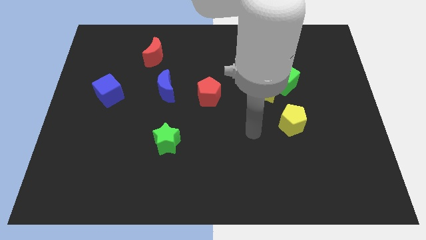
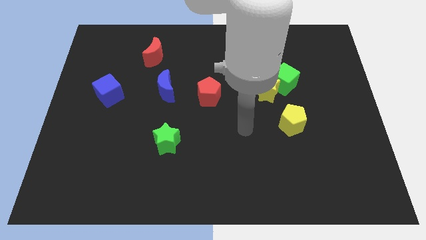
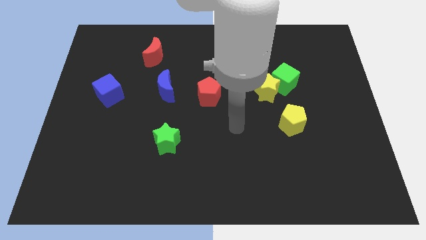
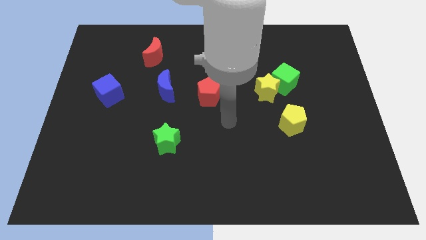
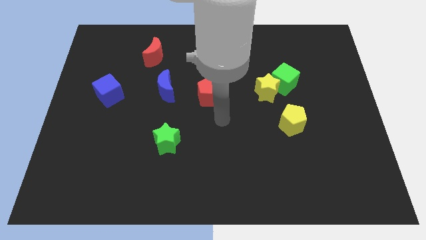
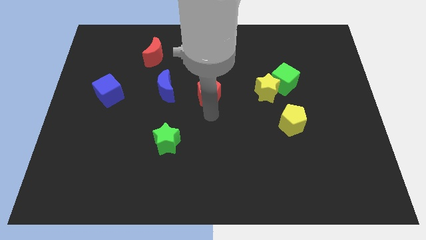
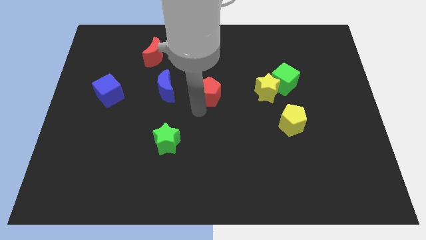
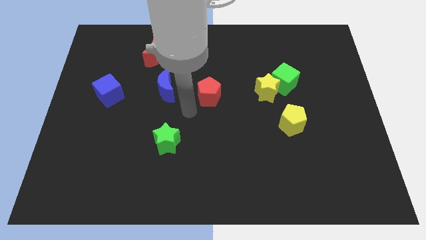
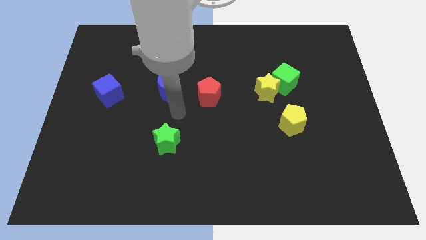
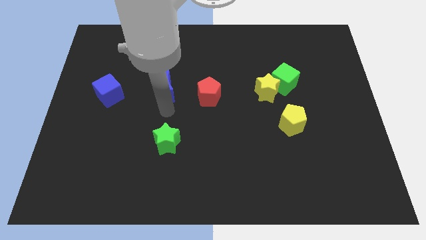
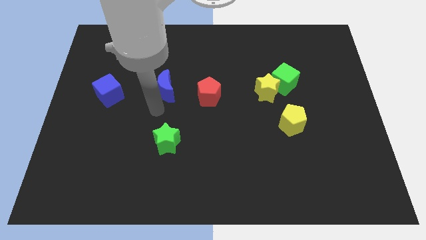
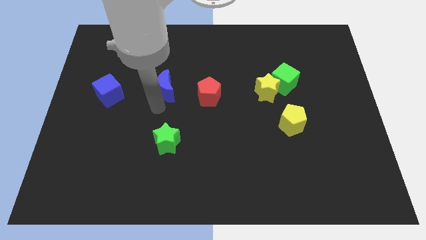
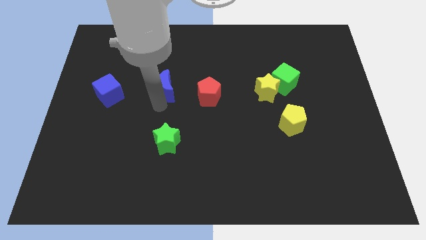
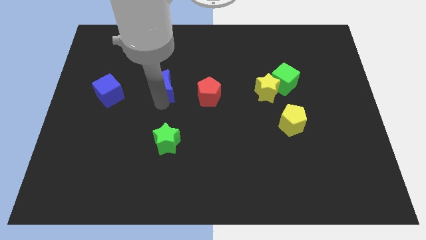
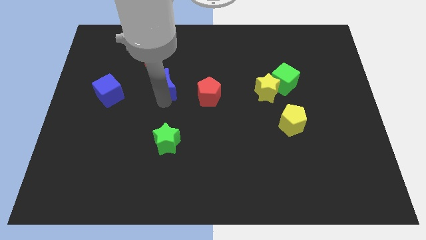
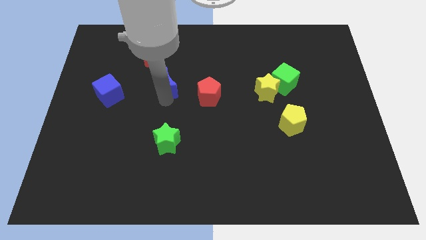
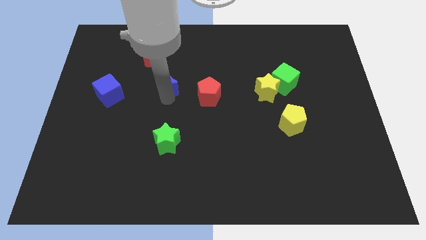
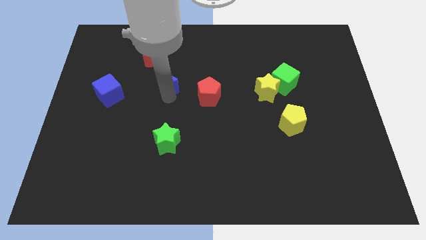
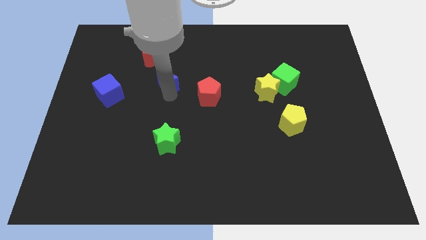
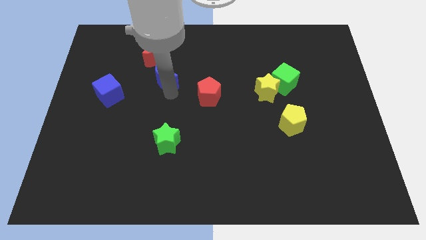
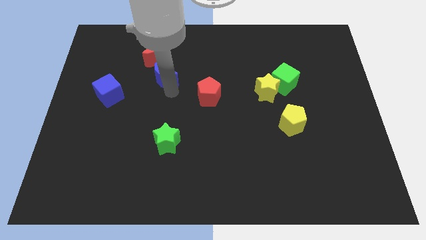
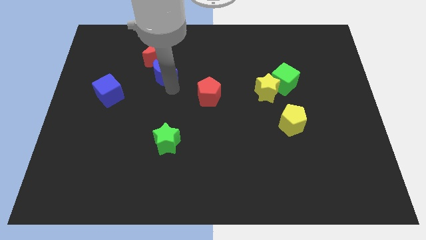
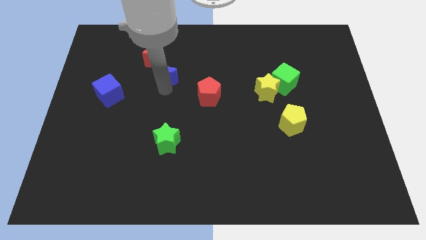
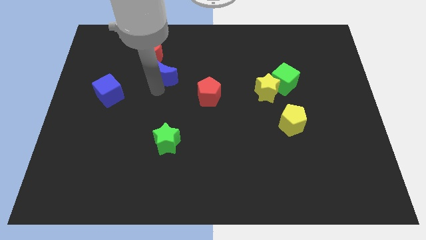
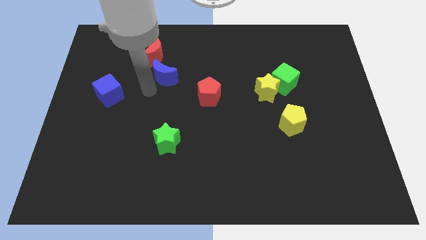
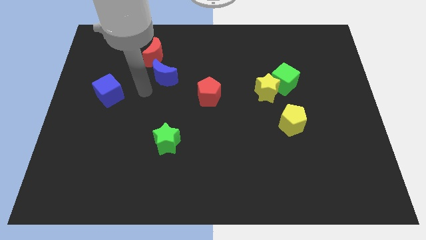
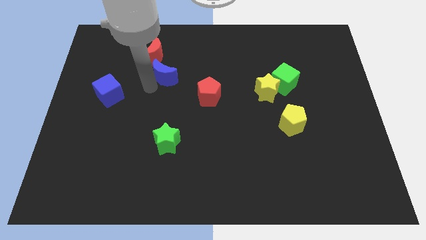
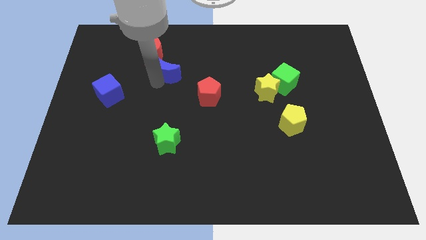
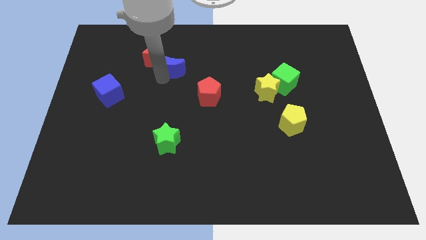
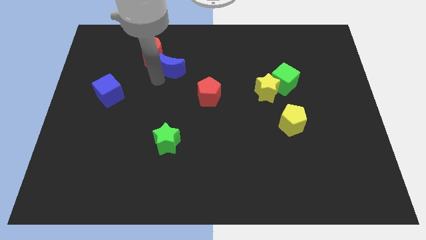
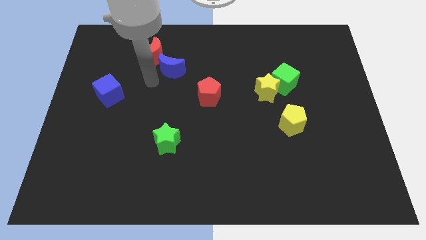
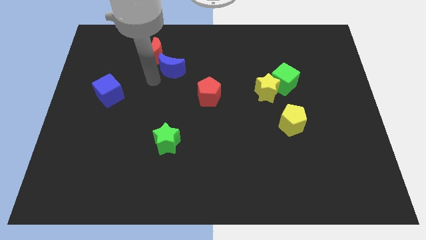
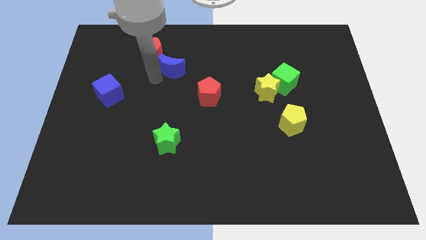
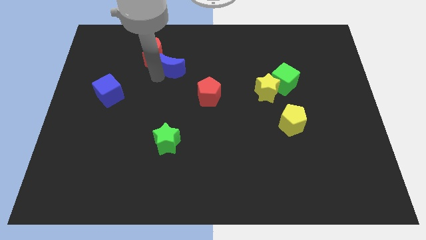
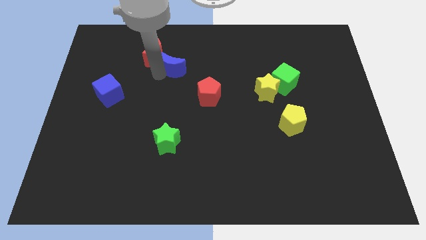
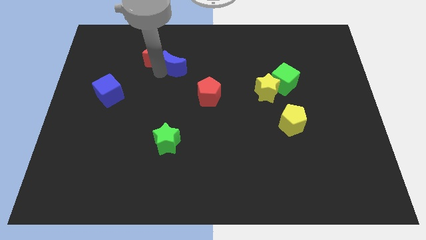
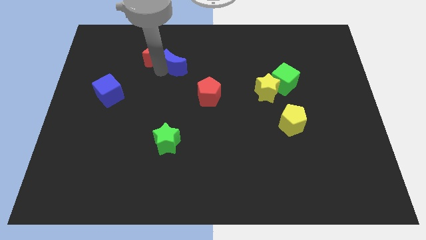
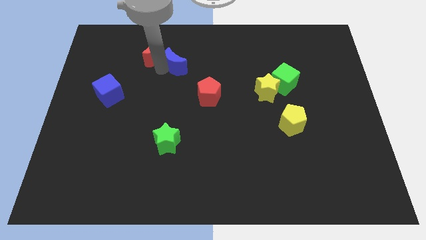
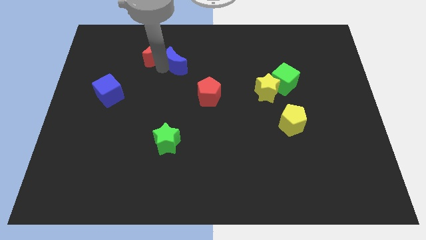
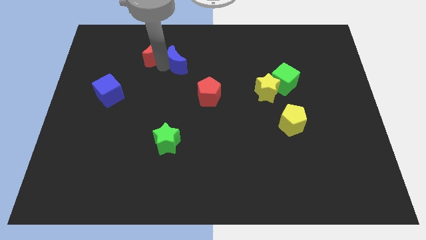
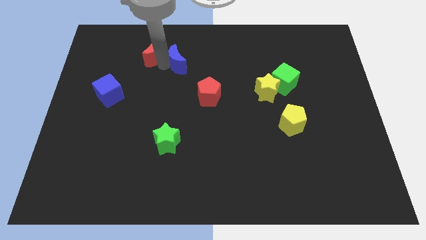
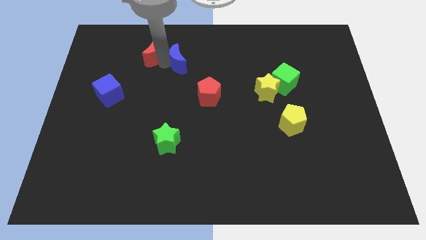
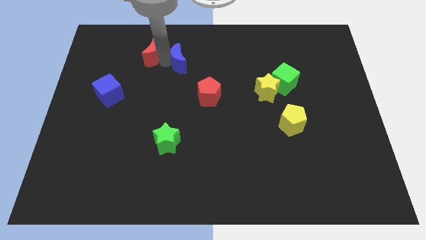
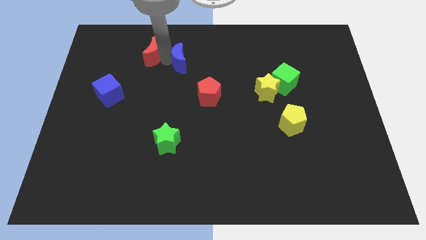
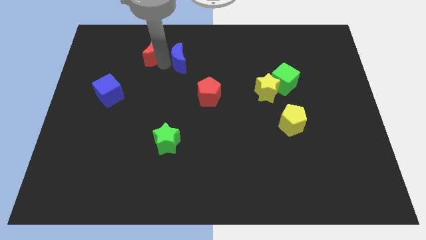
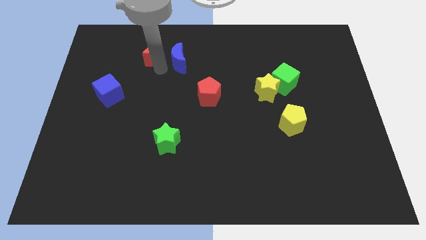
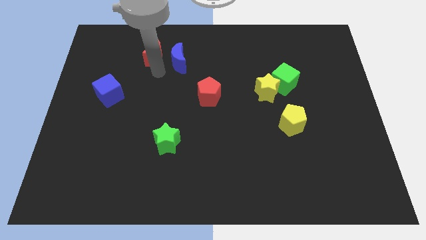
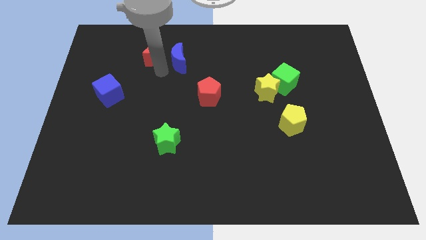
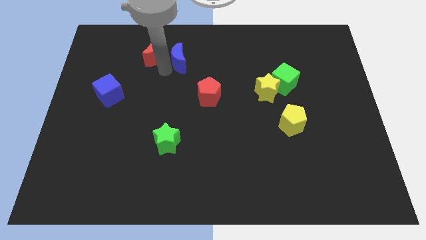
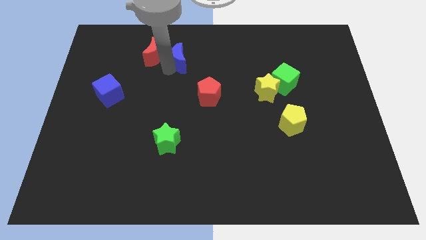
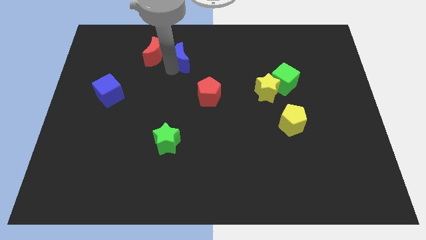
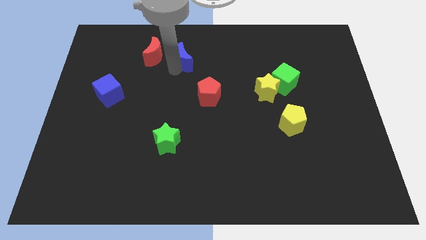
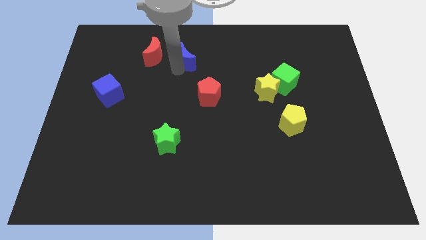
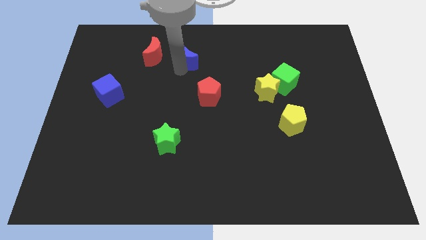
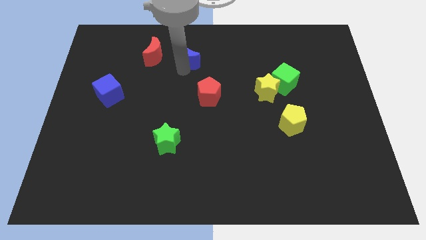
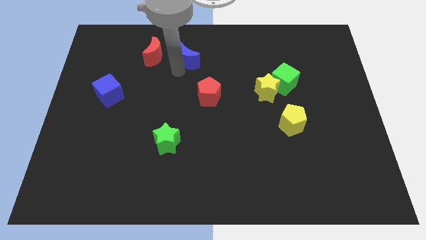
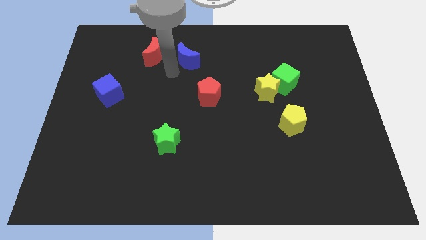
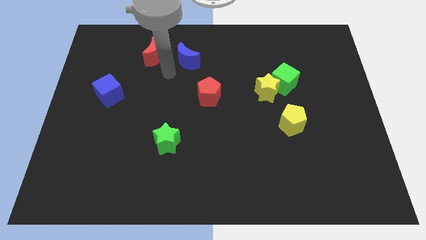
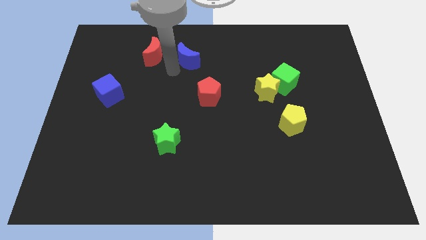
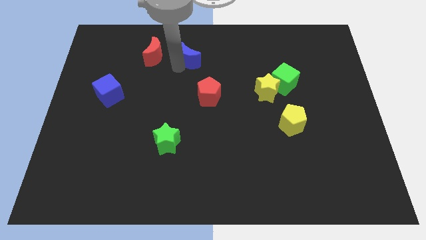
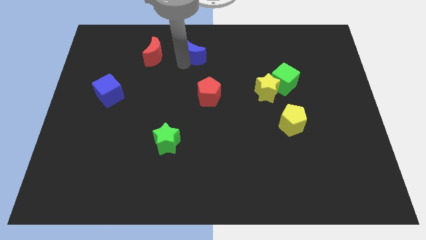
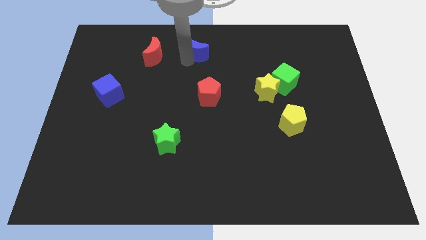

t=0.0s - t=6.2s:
slide the blue moon to the top
